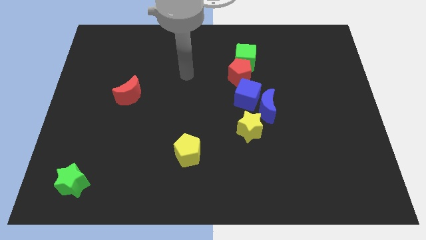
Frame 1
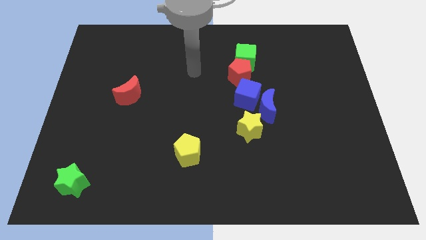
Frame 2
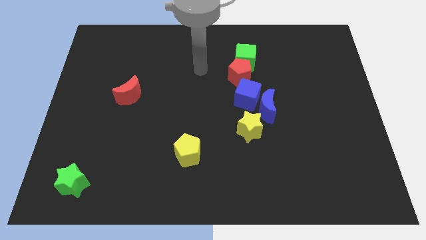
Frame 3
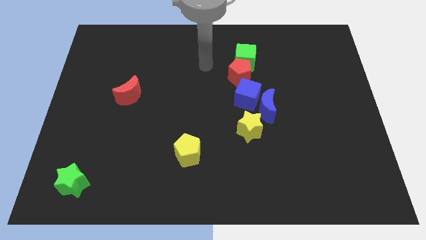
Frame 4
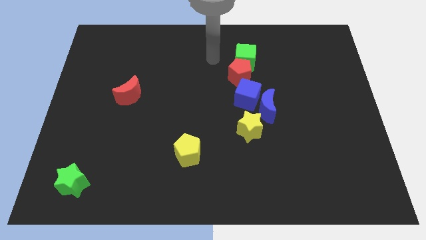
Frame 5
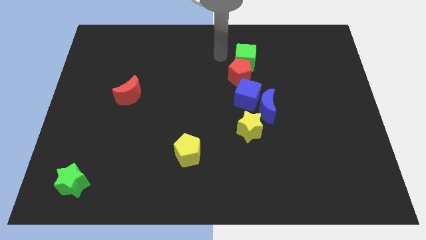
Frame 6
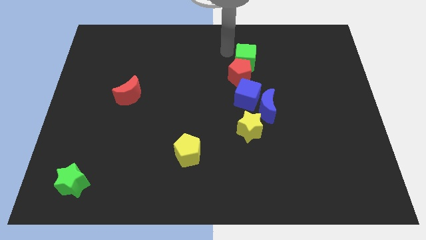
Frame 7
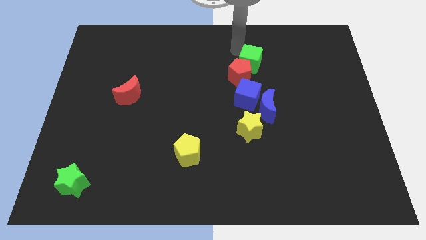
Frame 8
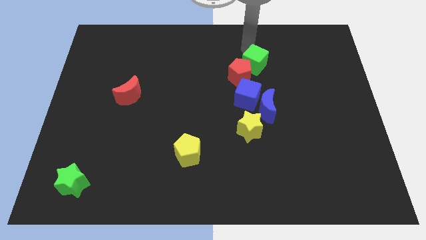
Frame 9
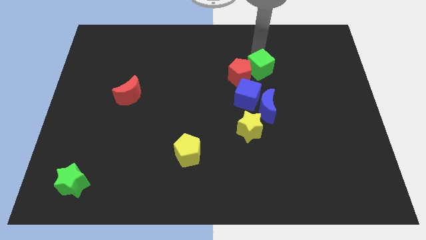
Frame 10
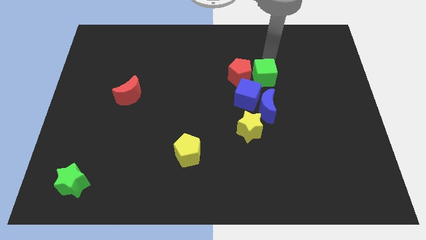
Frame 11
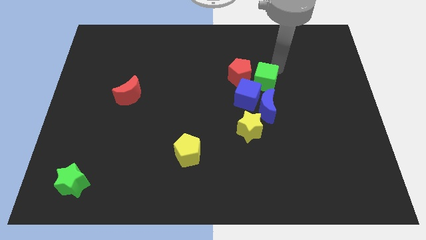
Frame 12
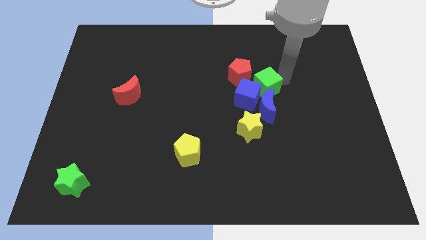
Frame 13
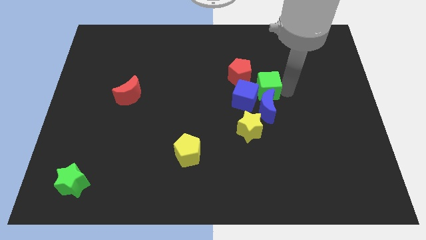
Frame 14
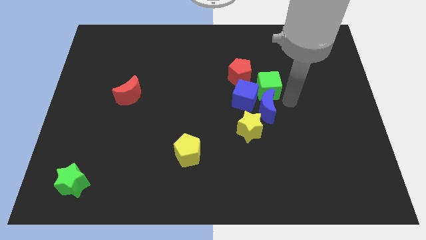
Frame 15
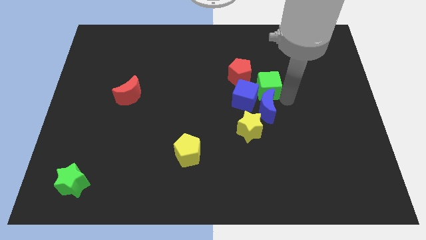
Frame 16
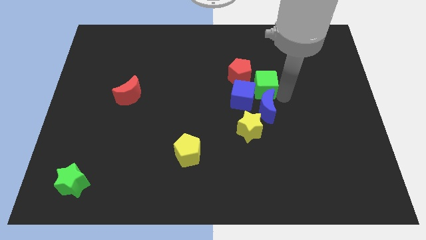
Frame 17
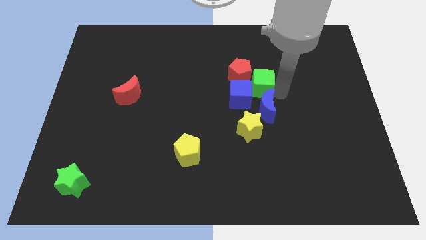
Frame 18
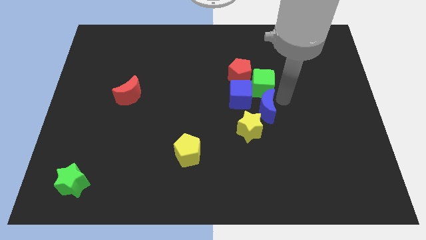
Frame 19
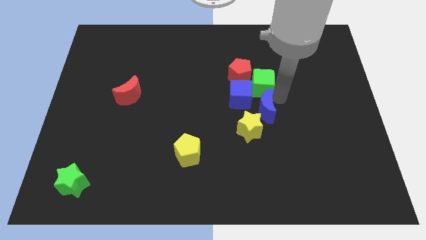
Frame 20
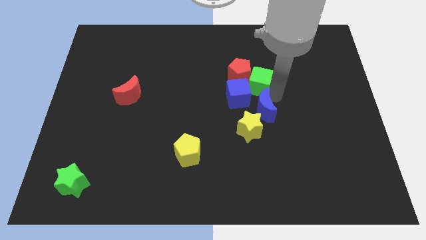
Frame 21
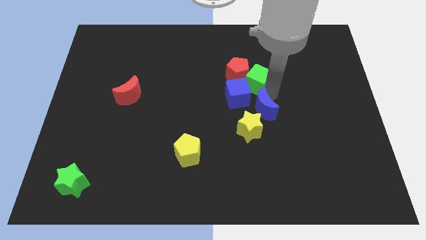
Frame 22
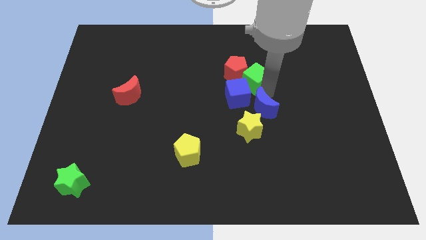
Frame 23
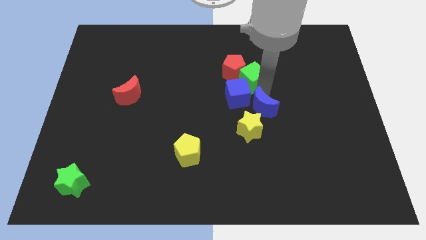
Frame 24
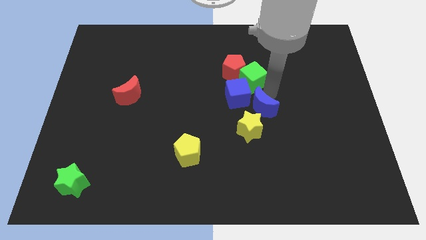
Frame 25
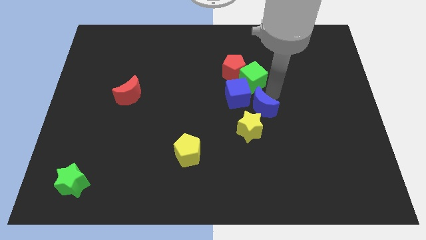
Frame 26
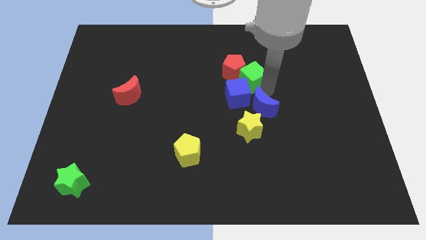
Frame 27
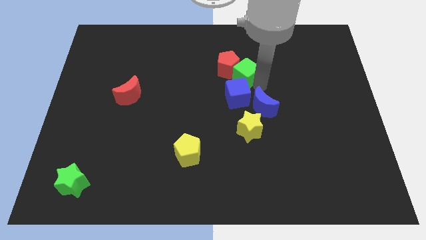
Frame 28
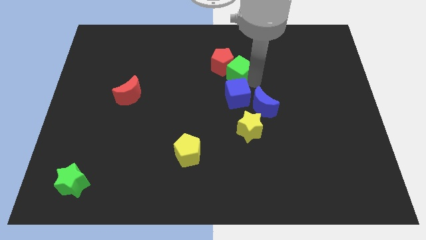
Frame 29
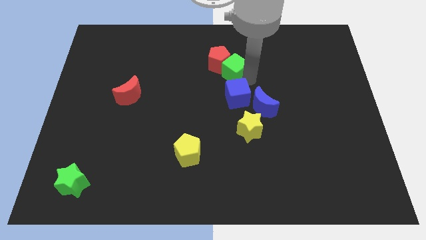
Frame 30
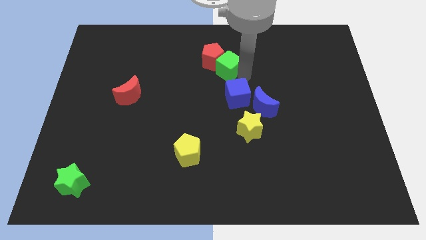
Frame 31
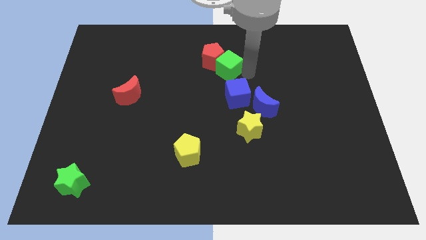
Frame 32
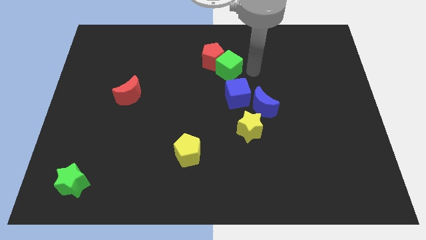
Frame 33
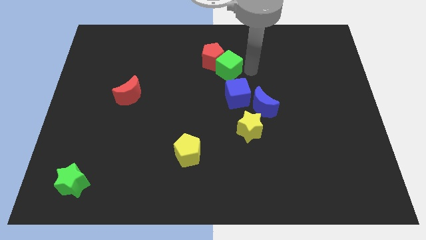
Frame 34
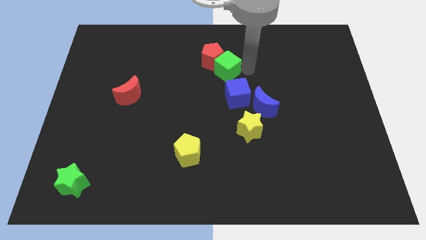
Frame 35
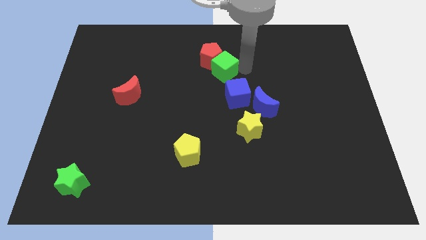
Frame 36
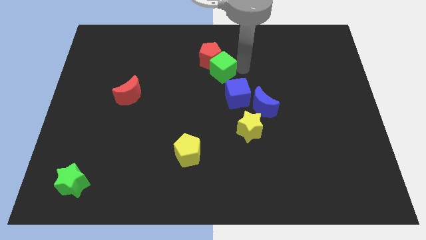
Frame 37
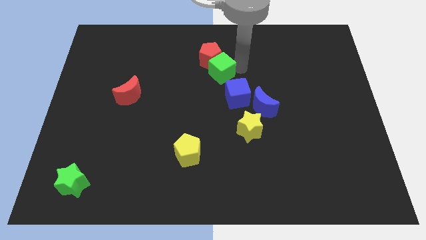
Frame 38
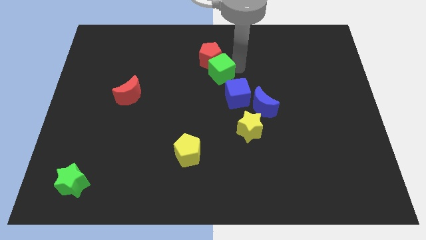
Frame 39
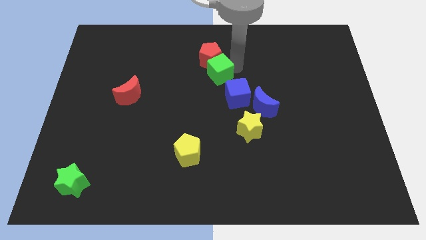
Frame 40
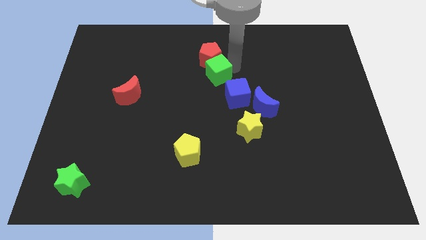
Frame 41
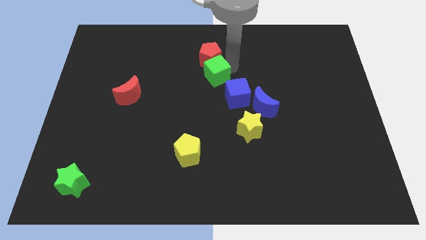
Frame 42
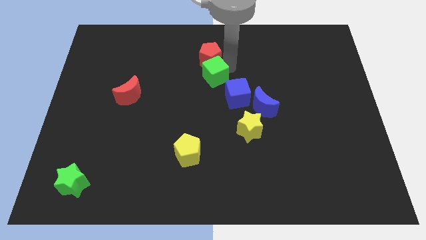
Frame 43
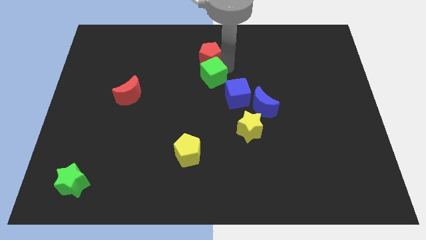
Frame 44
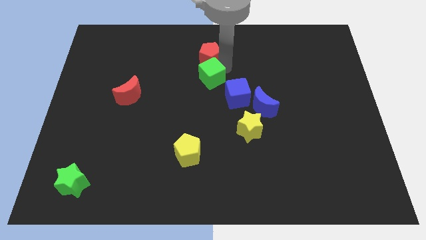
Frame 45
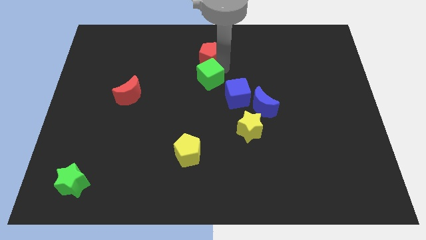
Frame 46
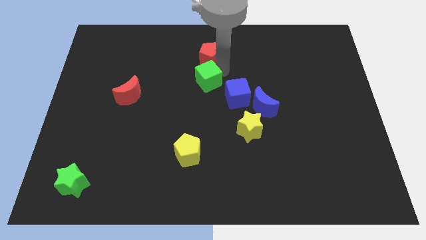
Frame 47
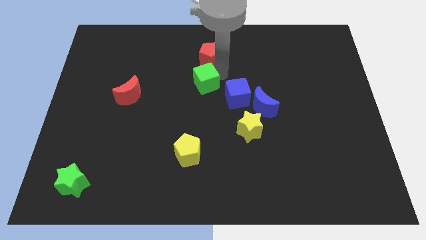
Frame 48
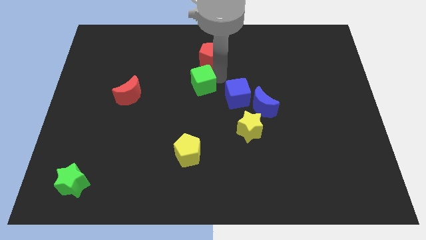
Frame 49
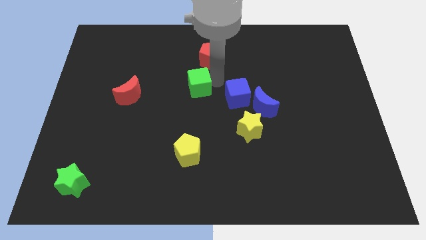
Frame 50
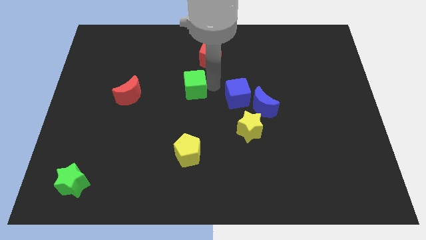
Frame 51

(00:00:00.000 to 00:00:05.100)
push the green cube to the right side of the red moon

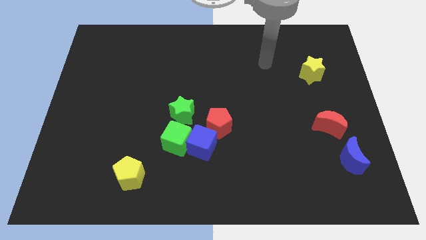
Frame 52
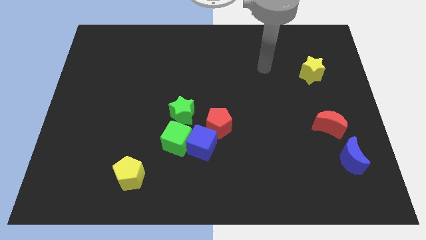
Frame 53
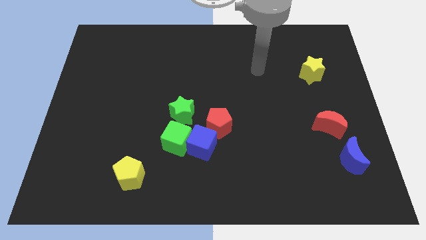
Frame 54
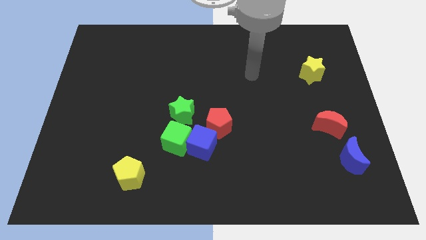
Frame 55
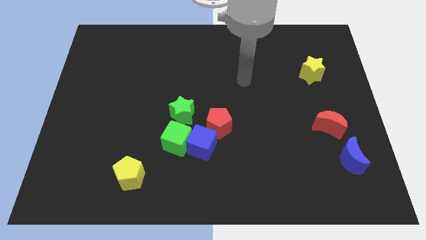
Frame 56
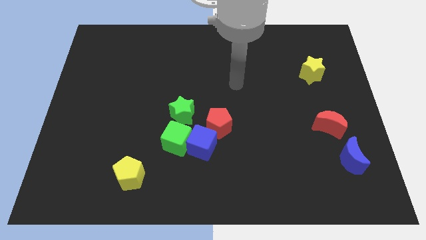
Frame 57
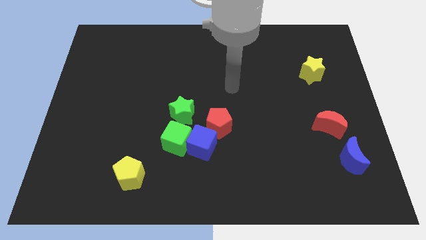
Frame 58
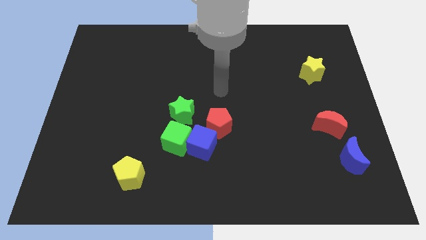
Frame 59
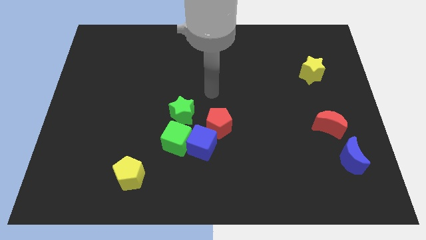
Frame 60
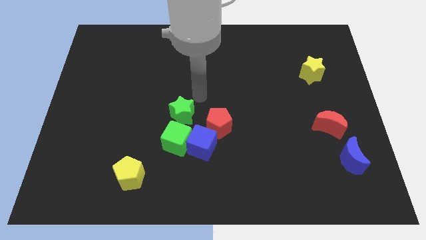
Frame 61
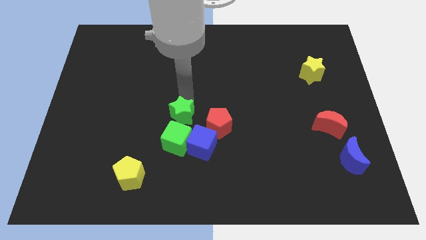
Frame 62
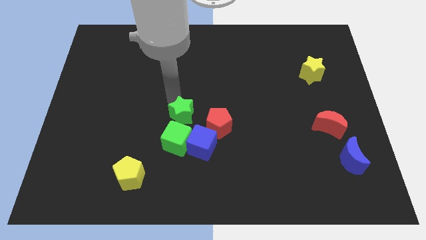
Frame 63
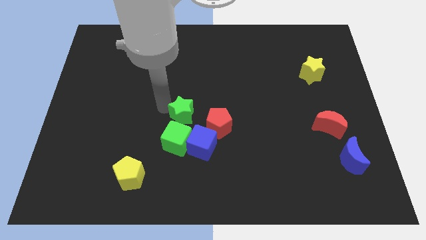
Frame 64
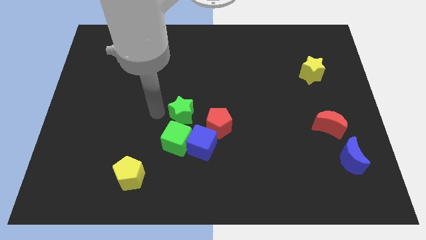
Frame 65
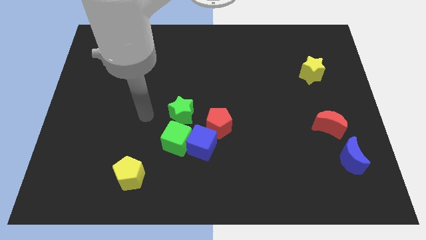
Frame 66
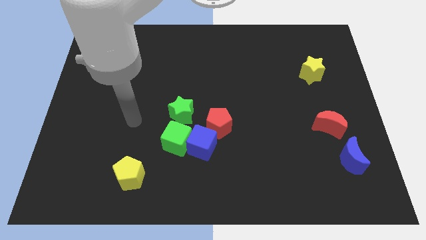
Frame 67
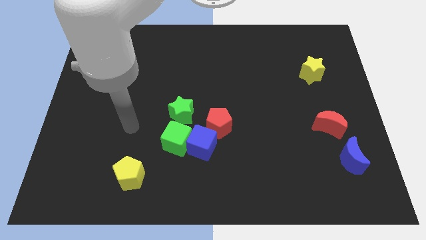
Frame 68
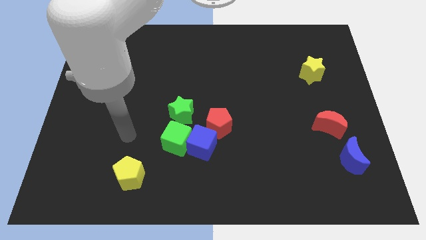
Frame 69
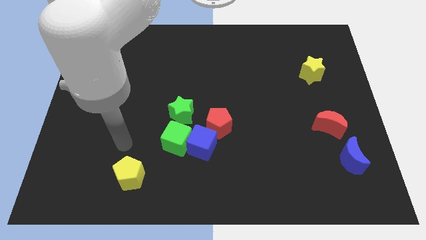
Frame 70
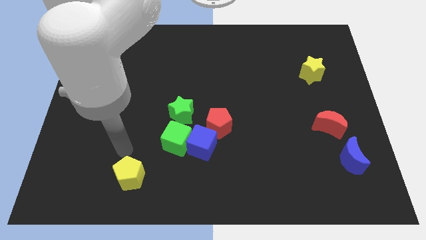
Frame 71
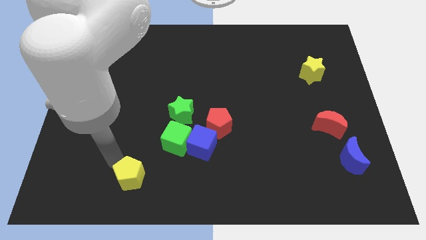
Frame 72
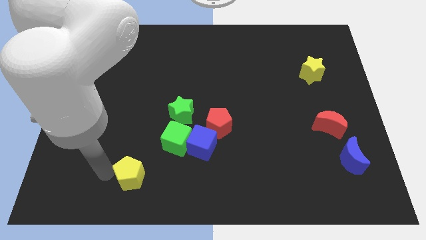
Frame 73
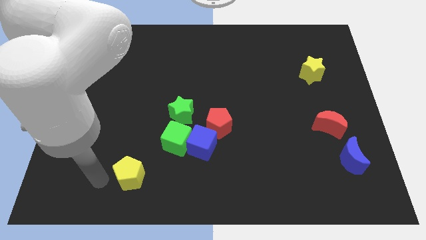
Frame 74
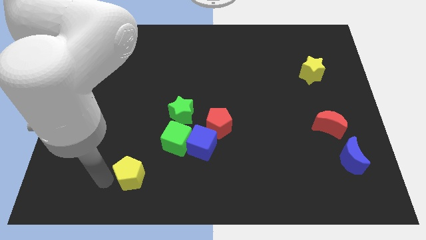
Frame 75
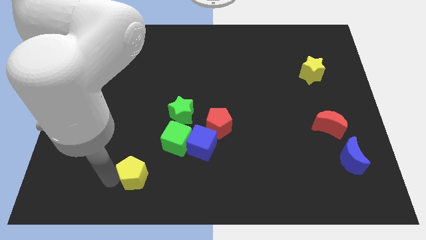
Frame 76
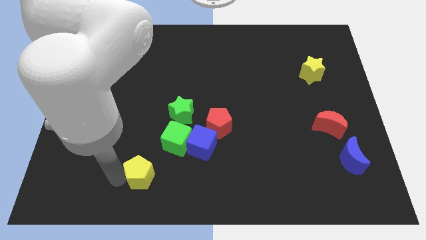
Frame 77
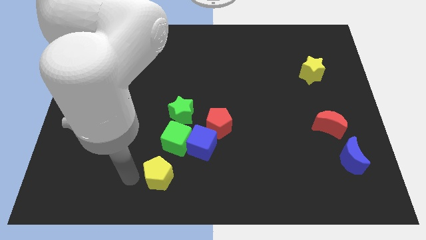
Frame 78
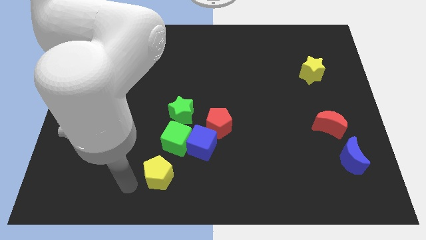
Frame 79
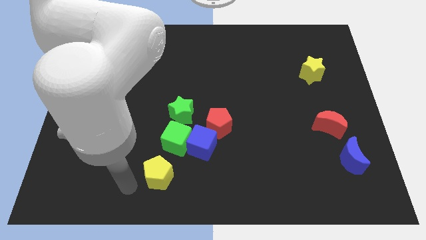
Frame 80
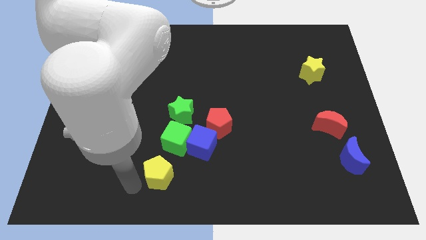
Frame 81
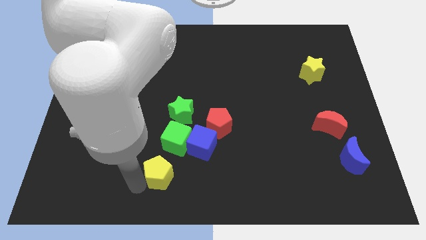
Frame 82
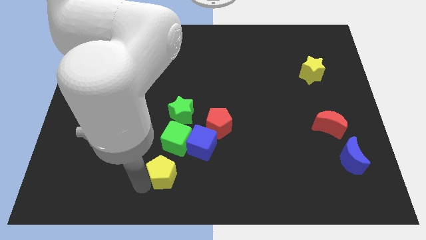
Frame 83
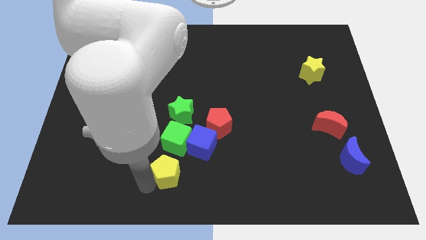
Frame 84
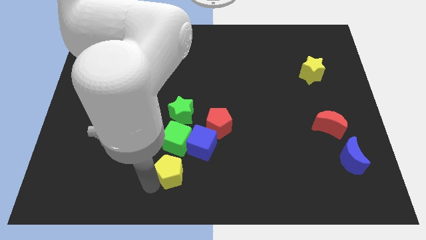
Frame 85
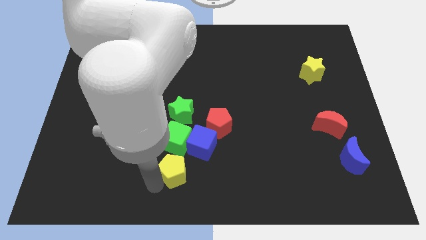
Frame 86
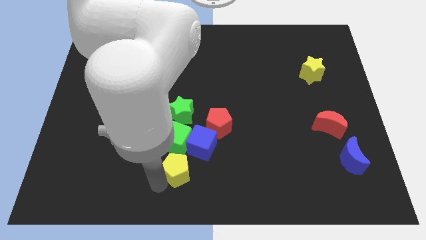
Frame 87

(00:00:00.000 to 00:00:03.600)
push the yellow pentagon to the bottom right side of the green cube
